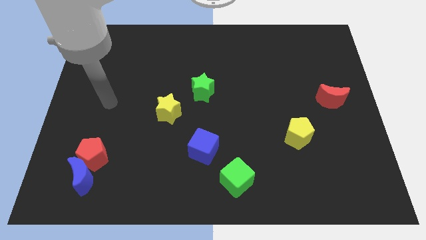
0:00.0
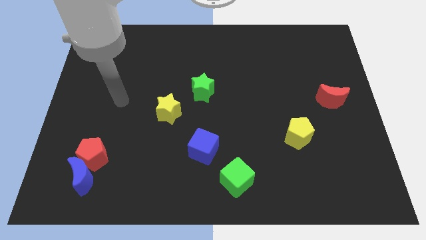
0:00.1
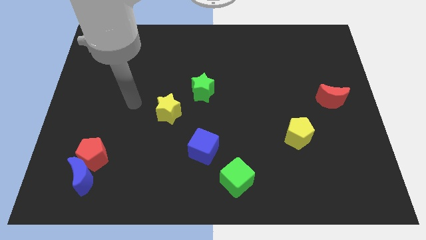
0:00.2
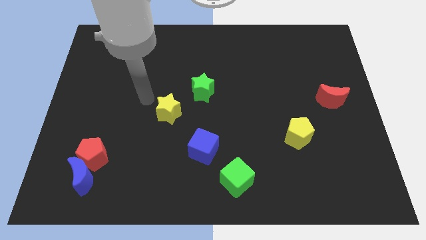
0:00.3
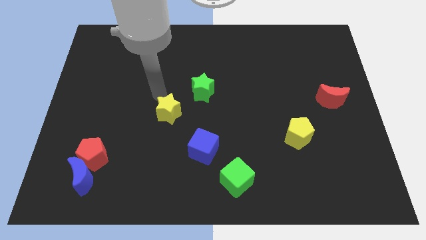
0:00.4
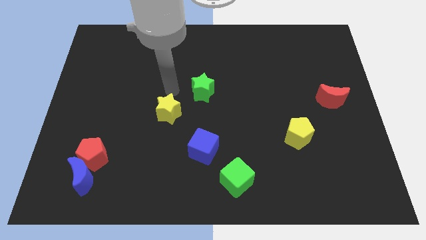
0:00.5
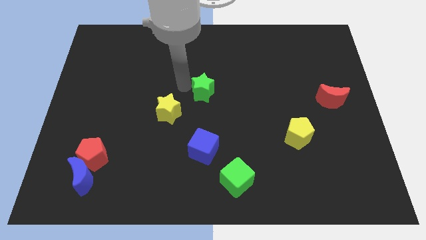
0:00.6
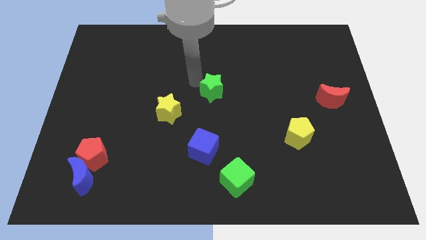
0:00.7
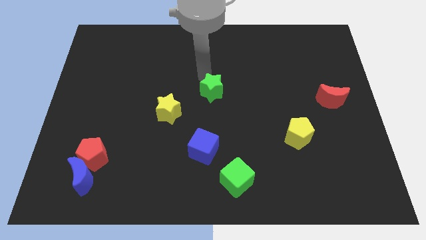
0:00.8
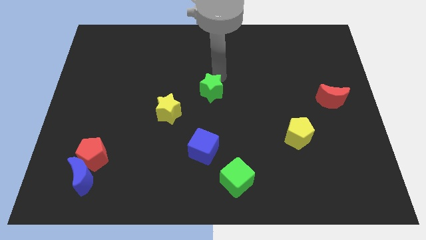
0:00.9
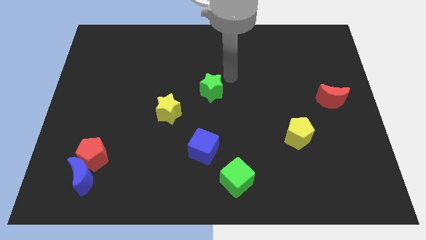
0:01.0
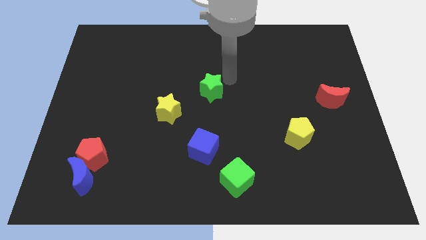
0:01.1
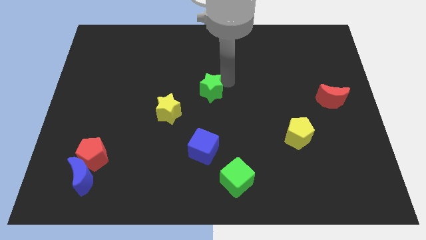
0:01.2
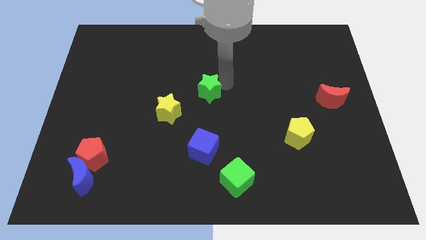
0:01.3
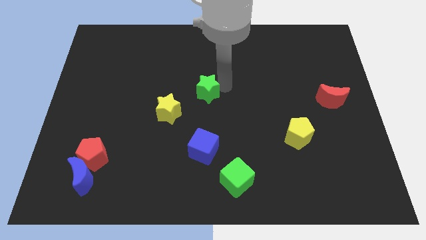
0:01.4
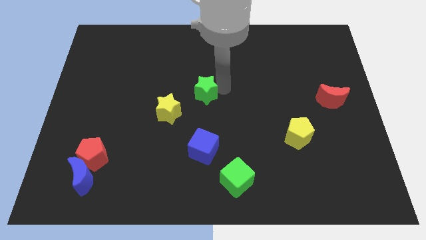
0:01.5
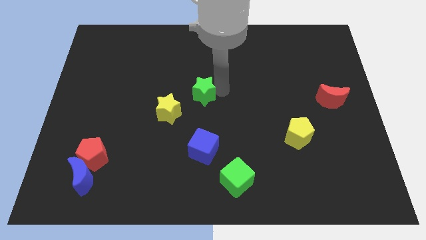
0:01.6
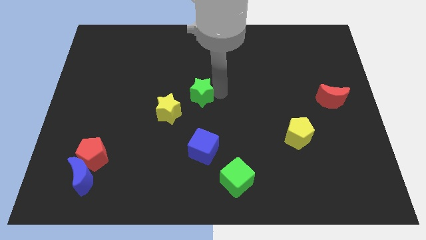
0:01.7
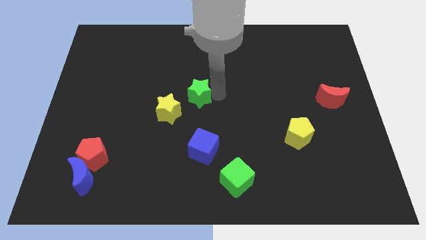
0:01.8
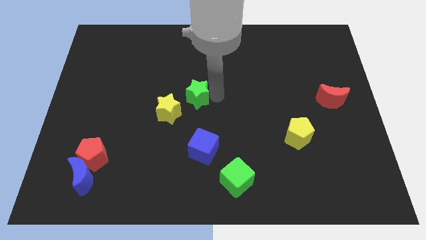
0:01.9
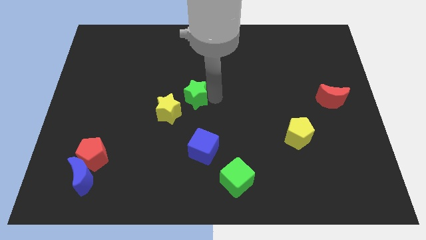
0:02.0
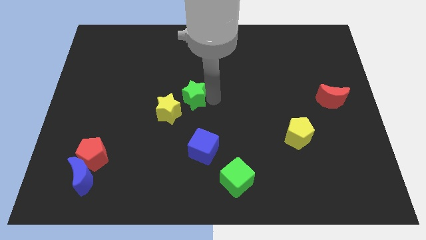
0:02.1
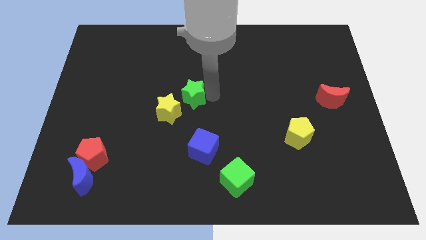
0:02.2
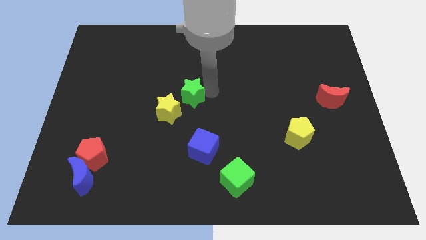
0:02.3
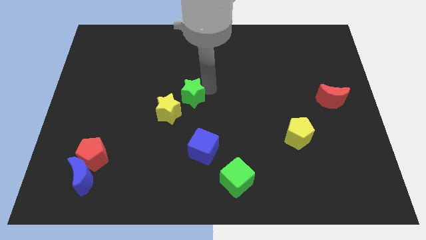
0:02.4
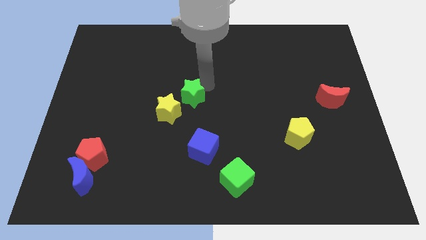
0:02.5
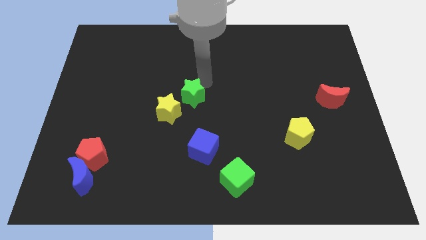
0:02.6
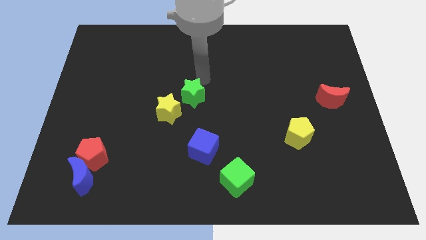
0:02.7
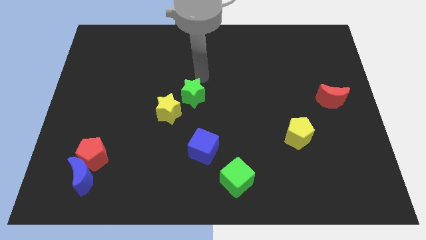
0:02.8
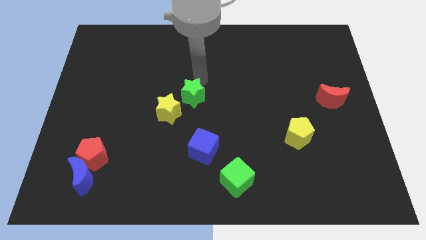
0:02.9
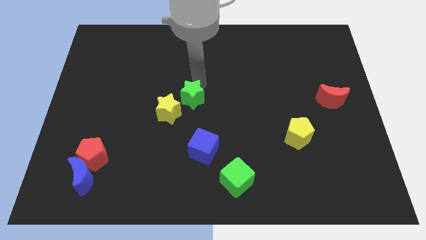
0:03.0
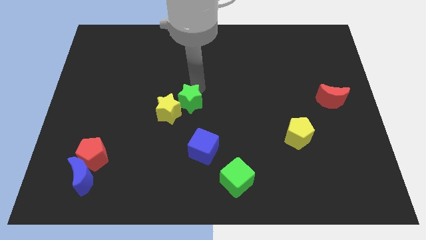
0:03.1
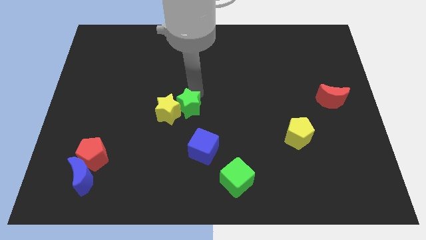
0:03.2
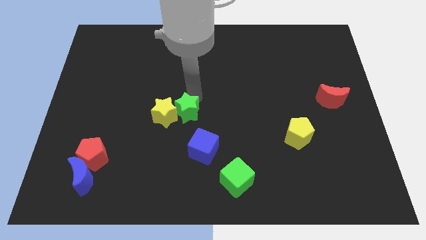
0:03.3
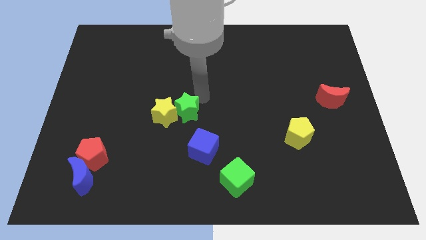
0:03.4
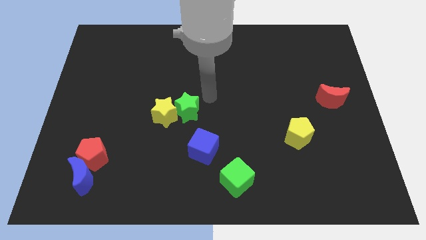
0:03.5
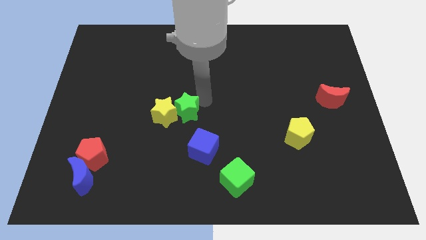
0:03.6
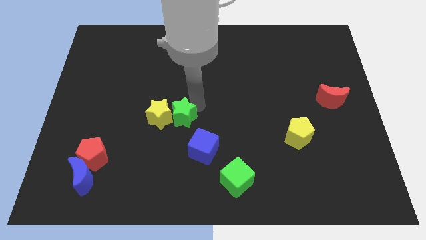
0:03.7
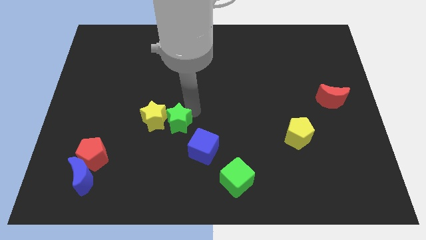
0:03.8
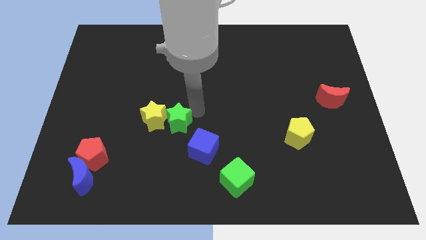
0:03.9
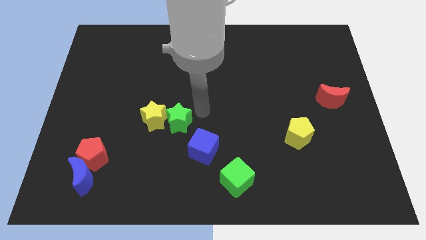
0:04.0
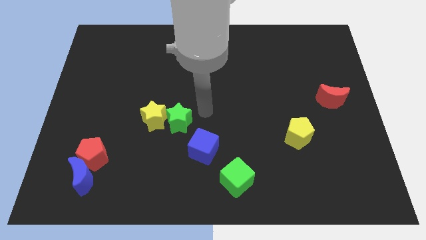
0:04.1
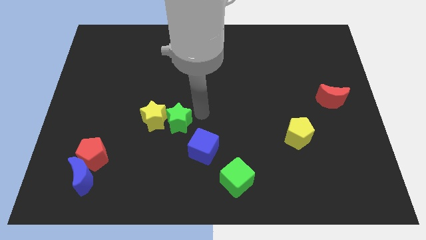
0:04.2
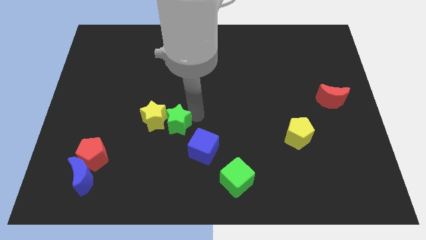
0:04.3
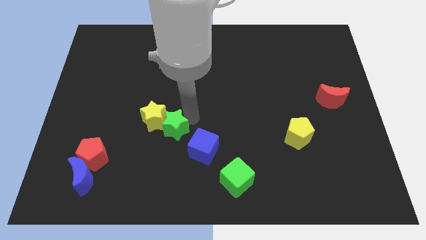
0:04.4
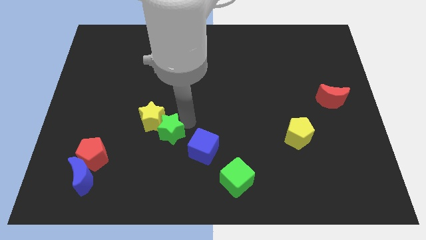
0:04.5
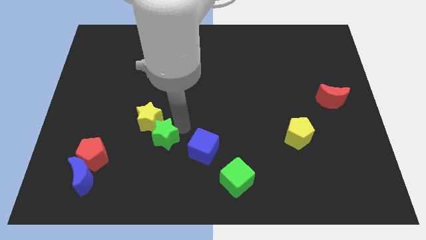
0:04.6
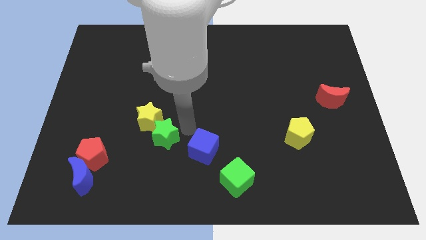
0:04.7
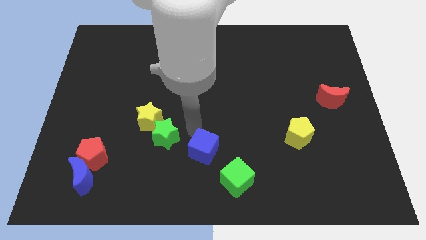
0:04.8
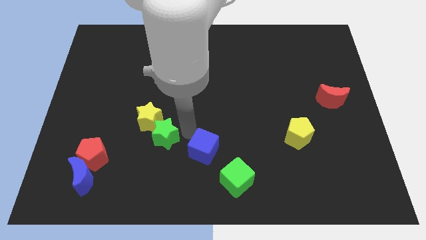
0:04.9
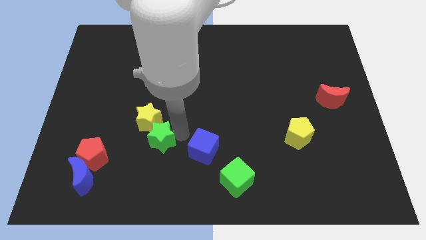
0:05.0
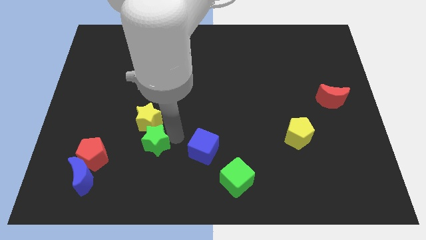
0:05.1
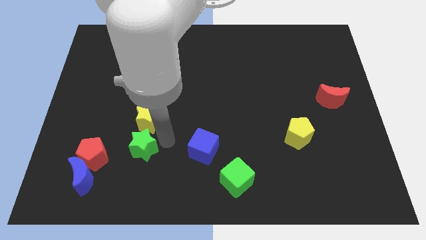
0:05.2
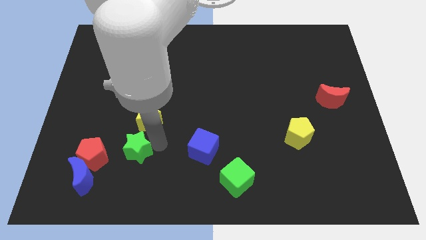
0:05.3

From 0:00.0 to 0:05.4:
slide the green star to the top right of the blue moon

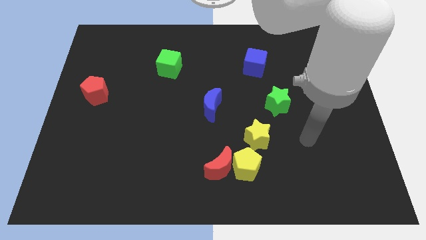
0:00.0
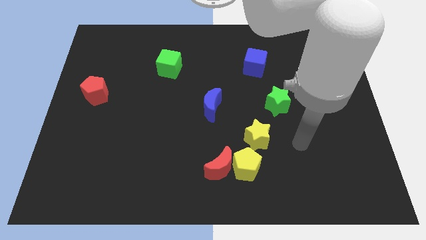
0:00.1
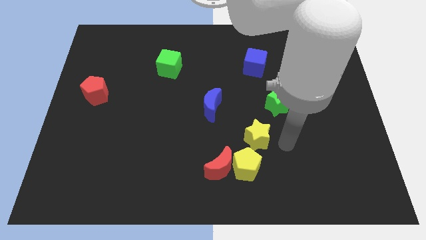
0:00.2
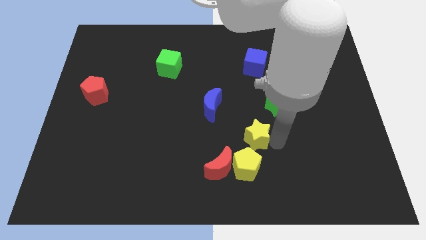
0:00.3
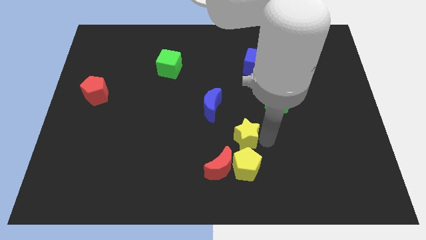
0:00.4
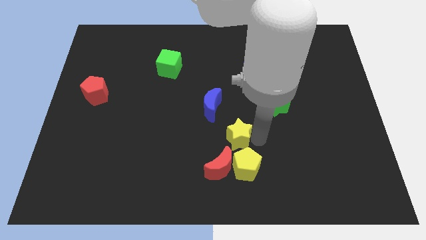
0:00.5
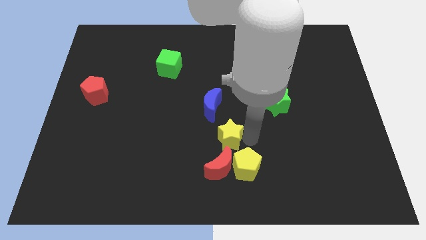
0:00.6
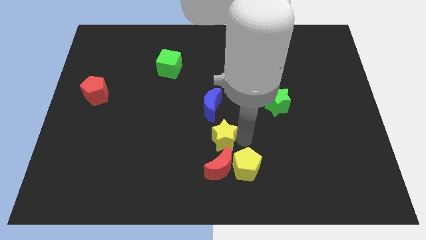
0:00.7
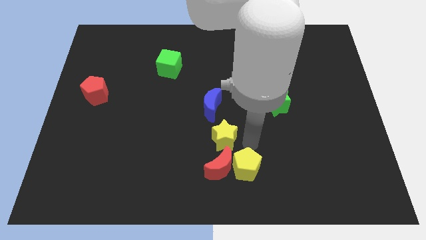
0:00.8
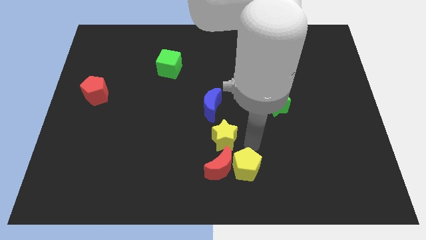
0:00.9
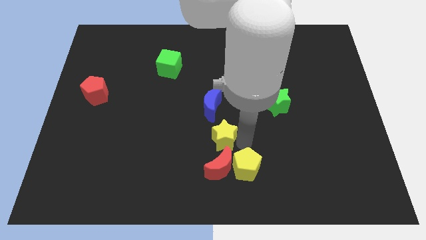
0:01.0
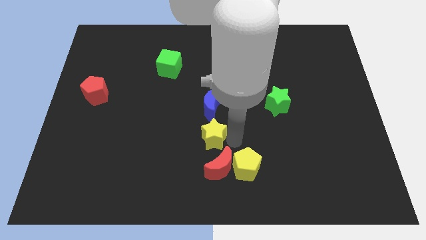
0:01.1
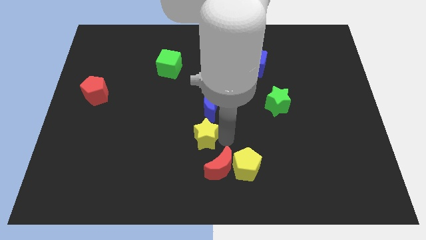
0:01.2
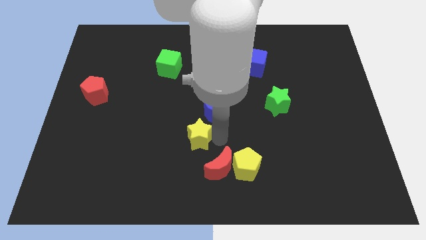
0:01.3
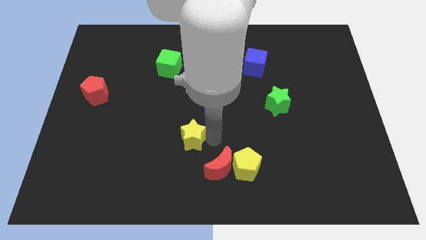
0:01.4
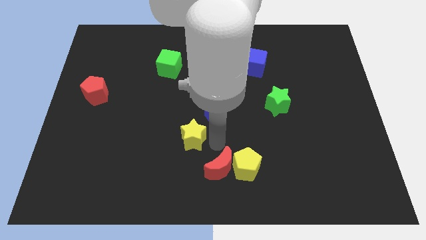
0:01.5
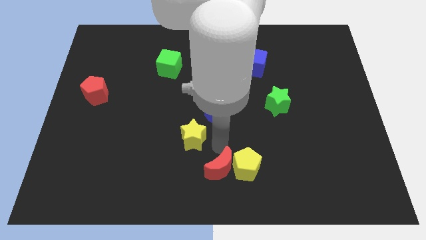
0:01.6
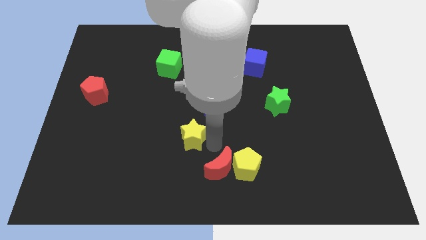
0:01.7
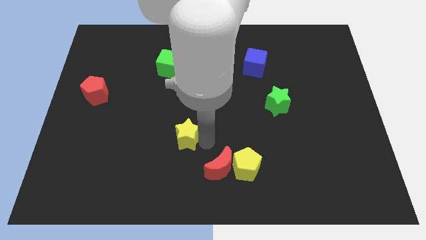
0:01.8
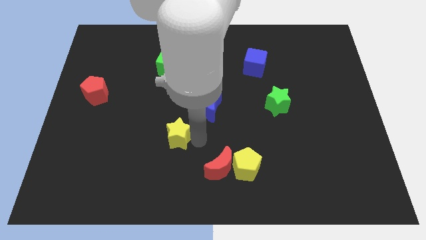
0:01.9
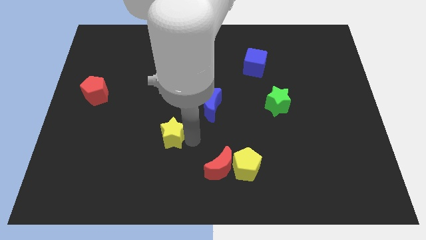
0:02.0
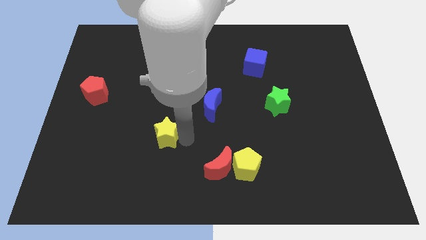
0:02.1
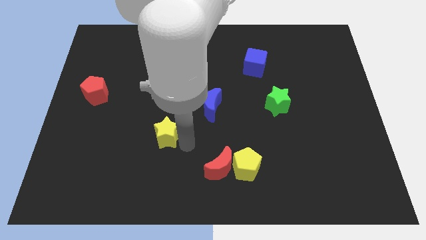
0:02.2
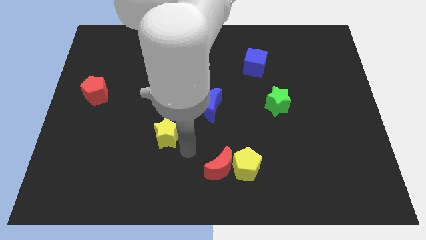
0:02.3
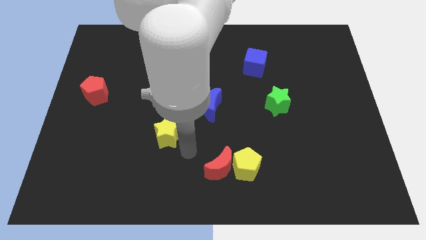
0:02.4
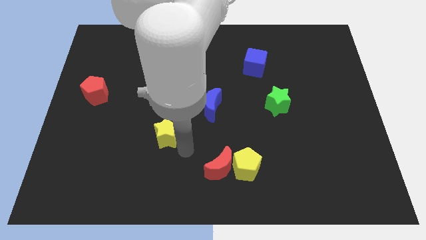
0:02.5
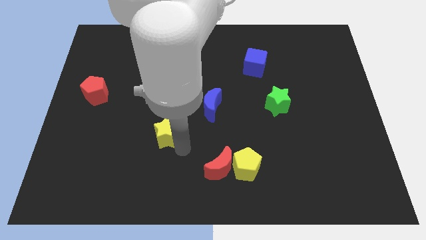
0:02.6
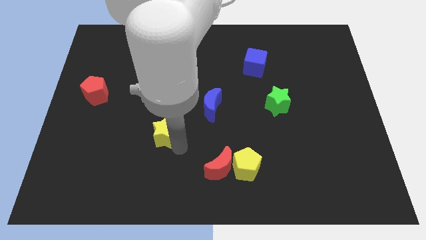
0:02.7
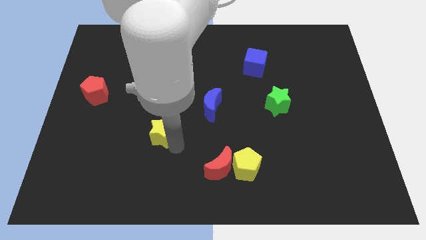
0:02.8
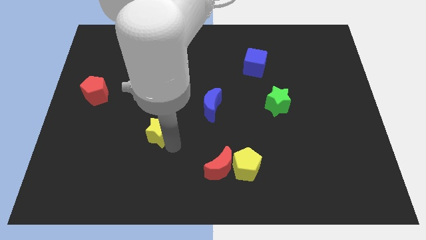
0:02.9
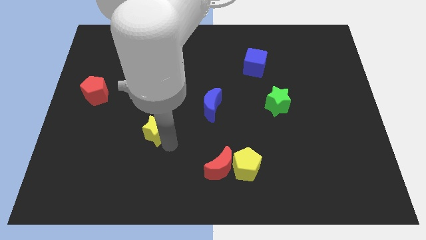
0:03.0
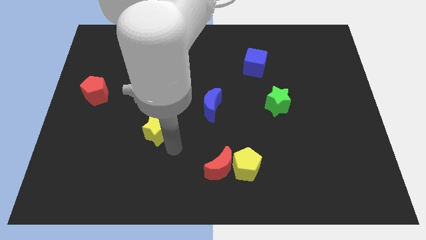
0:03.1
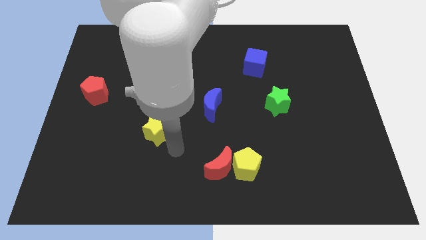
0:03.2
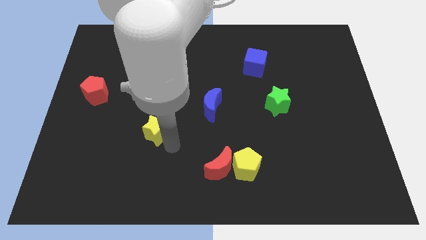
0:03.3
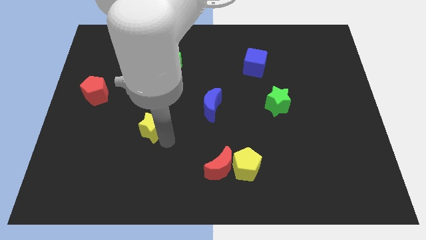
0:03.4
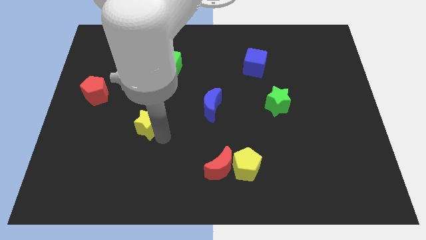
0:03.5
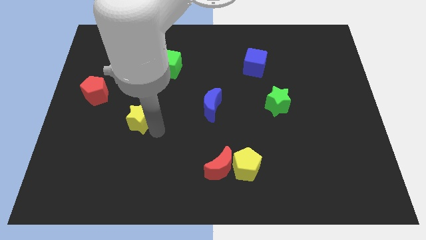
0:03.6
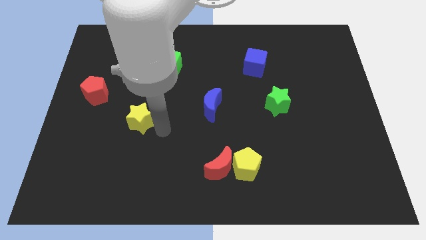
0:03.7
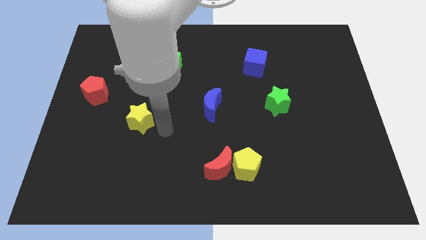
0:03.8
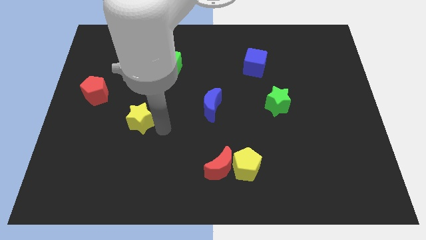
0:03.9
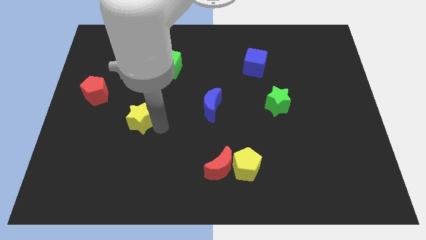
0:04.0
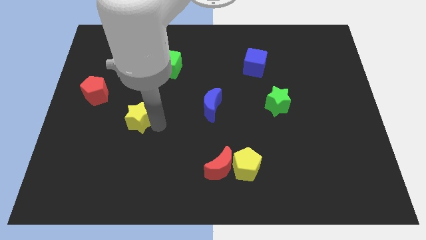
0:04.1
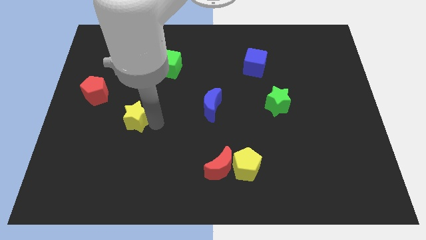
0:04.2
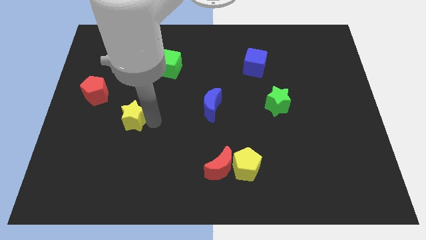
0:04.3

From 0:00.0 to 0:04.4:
slide the yellow star diagonally down and to the right of the red pentagon
